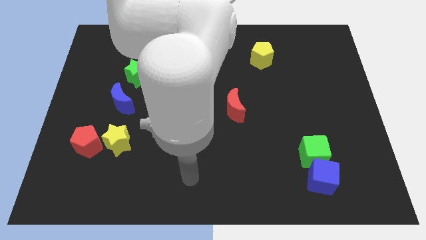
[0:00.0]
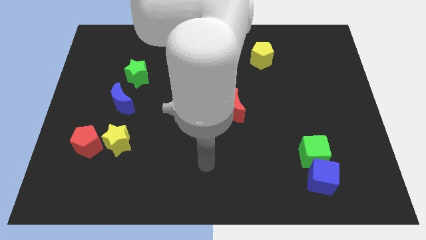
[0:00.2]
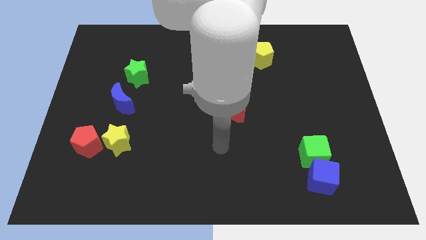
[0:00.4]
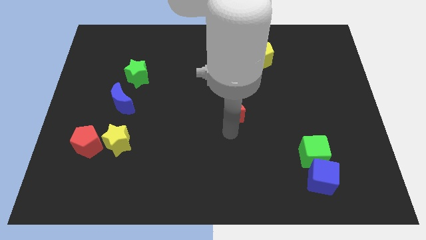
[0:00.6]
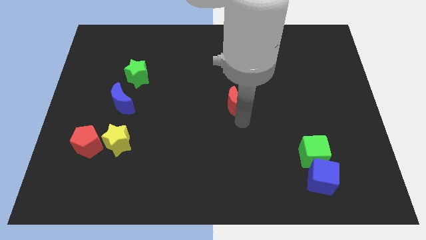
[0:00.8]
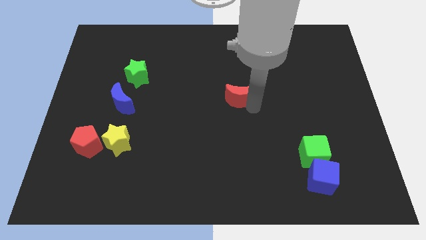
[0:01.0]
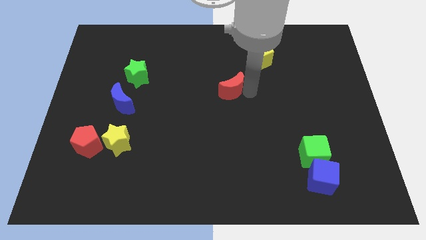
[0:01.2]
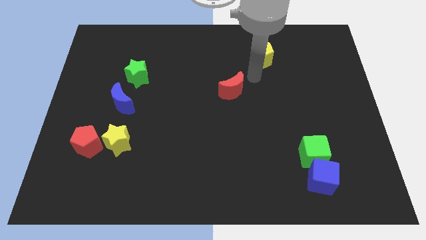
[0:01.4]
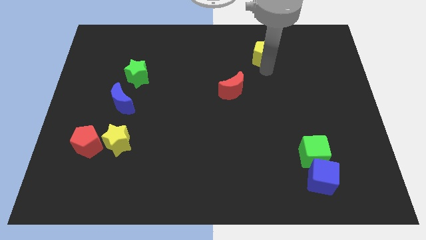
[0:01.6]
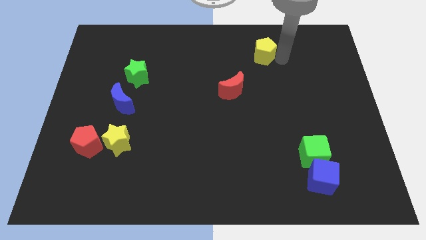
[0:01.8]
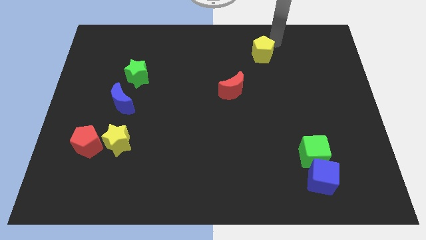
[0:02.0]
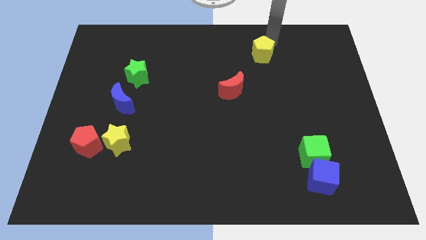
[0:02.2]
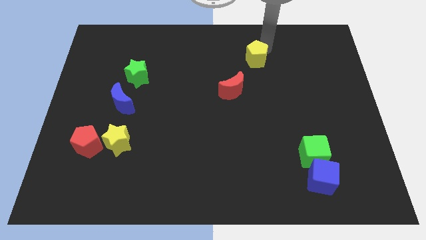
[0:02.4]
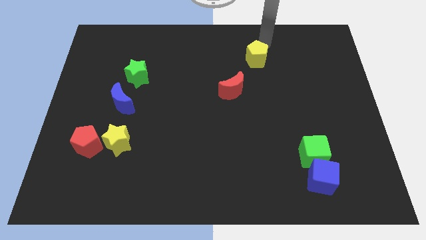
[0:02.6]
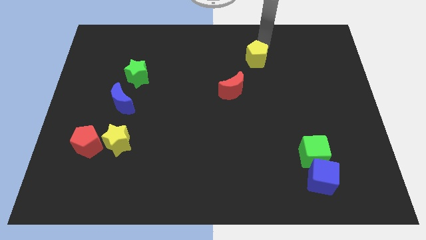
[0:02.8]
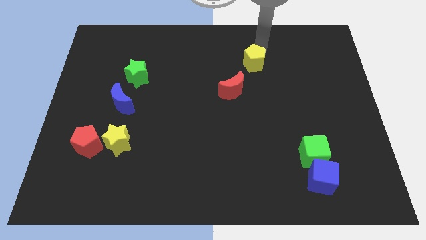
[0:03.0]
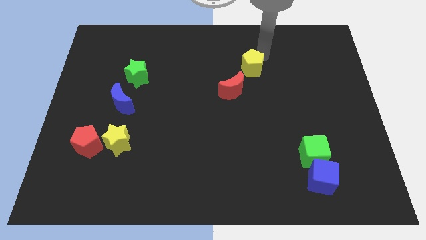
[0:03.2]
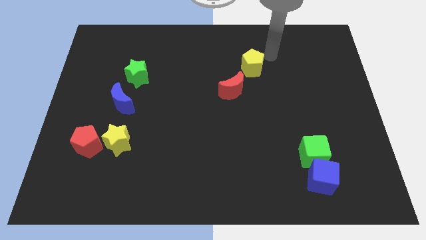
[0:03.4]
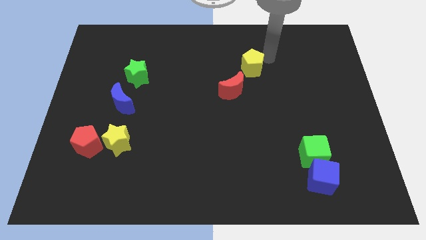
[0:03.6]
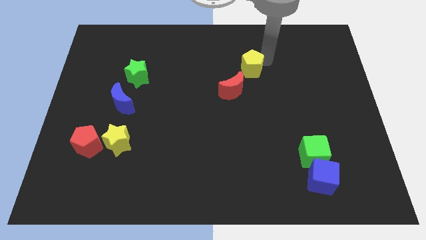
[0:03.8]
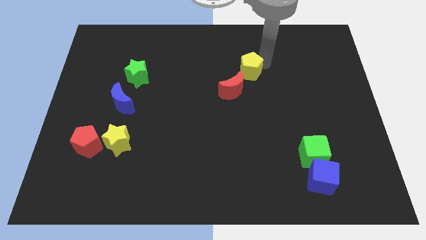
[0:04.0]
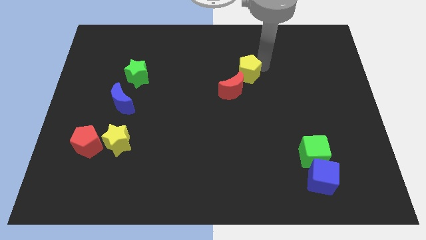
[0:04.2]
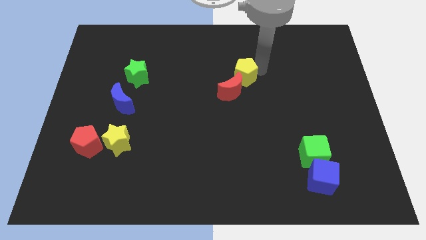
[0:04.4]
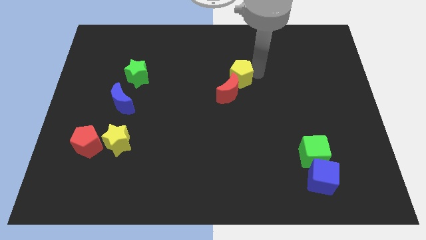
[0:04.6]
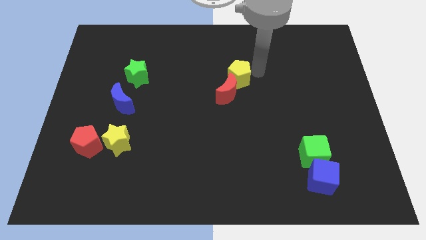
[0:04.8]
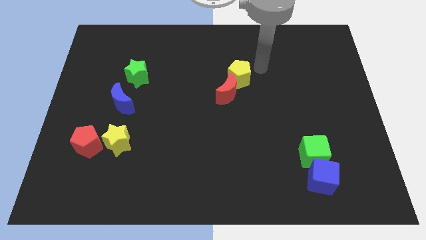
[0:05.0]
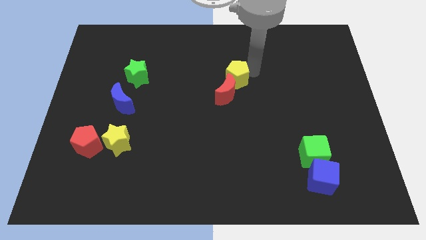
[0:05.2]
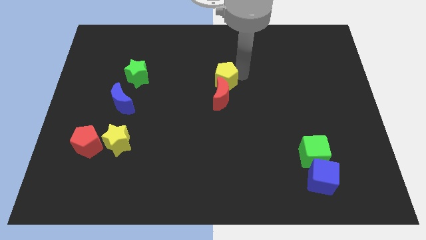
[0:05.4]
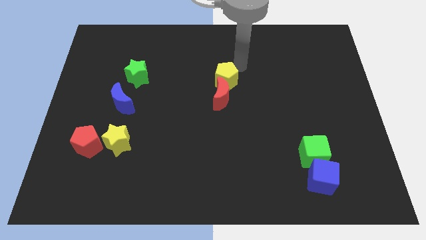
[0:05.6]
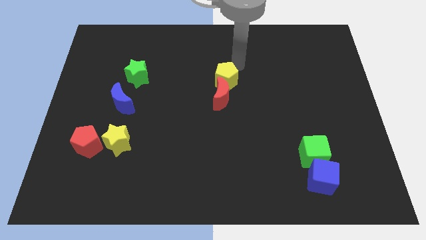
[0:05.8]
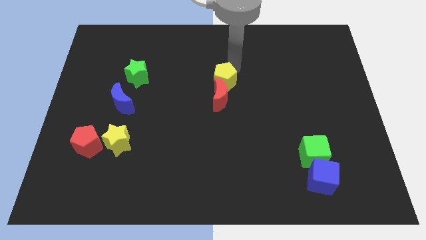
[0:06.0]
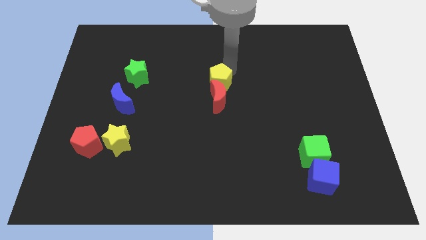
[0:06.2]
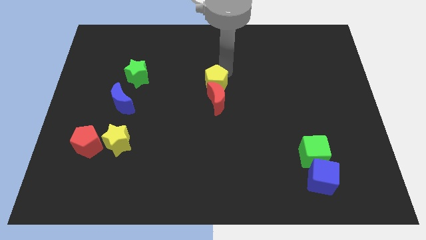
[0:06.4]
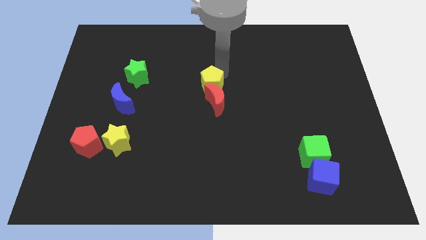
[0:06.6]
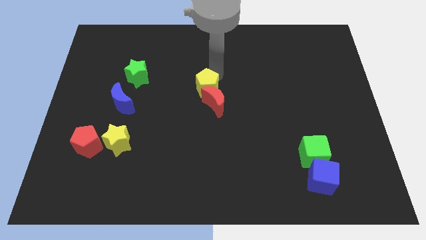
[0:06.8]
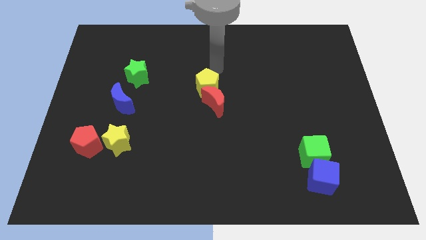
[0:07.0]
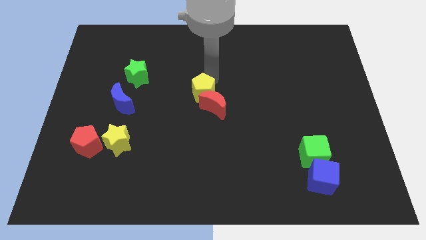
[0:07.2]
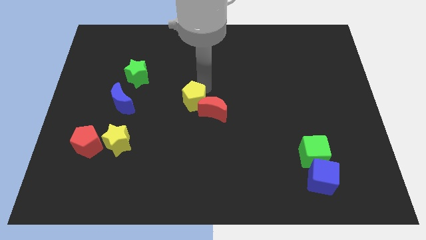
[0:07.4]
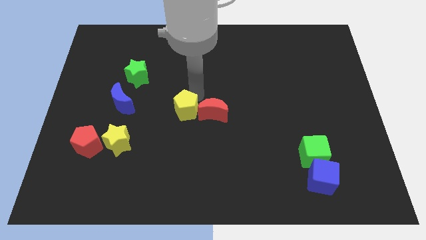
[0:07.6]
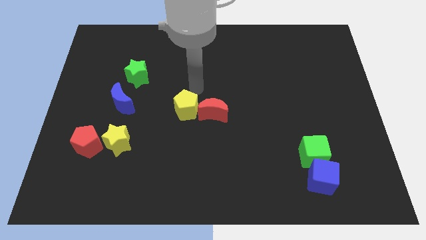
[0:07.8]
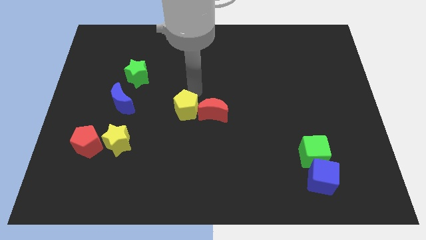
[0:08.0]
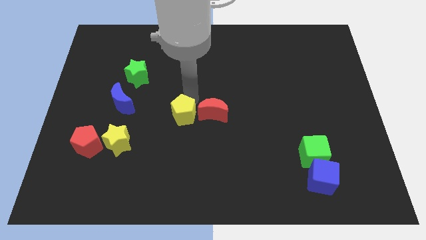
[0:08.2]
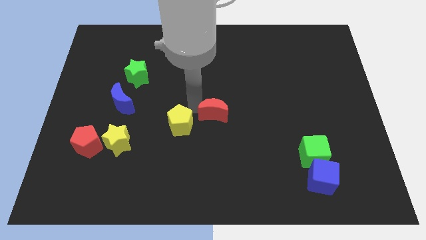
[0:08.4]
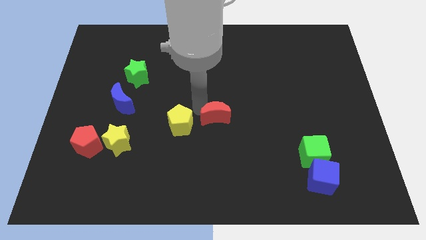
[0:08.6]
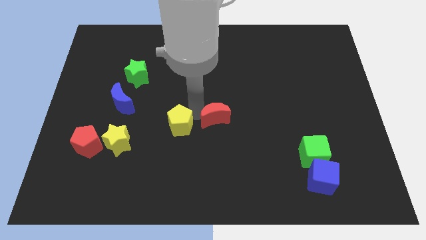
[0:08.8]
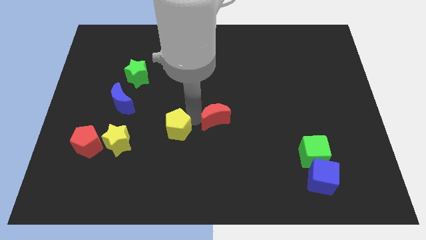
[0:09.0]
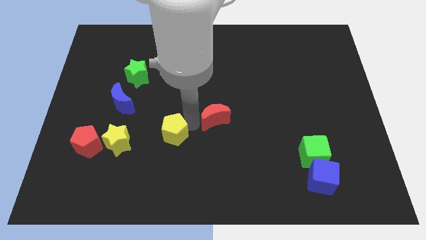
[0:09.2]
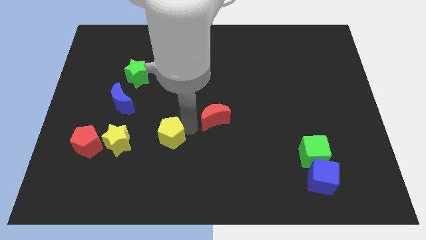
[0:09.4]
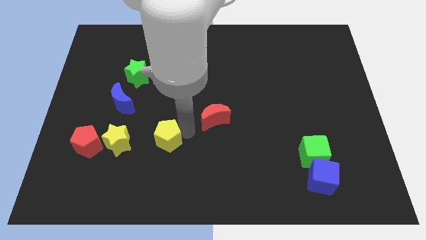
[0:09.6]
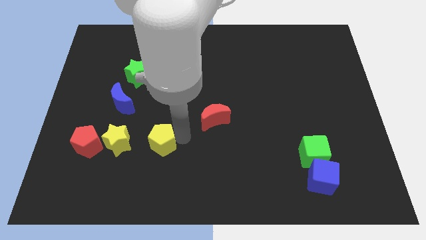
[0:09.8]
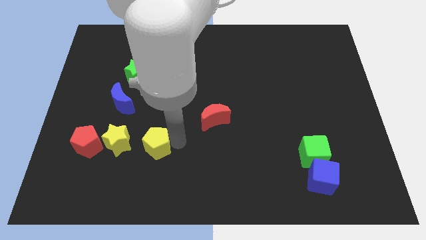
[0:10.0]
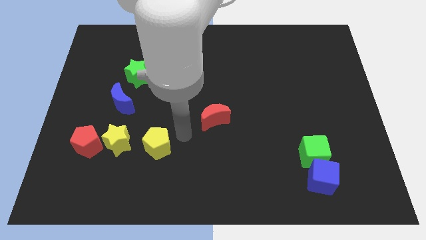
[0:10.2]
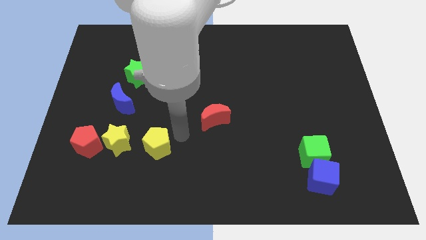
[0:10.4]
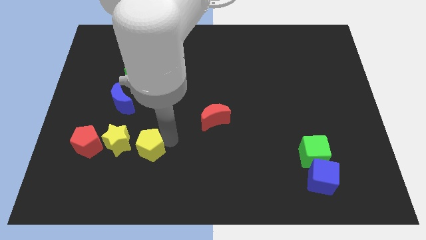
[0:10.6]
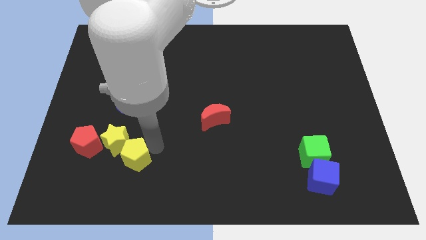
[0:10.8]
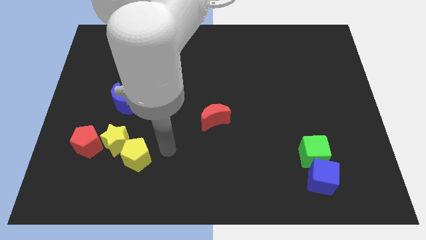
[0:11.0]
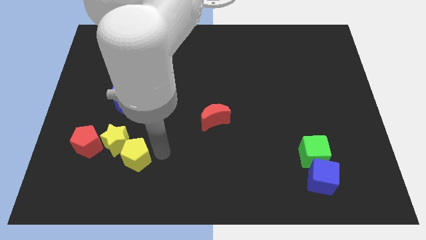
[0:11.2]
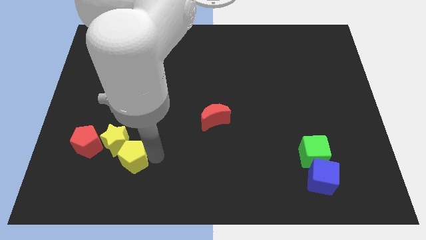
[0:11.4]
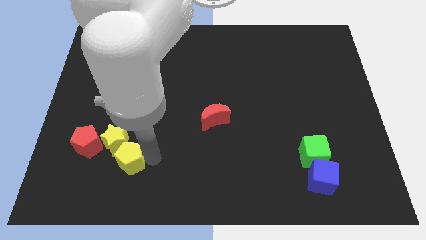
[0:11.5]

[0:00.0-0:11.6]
put the yellow pentagon diagonally down and to the right of the red pentagon

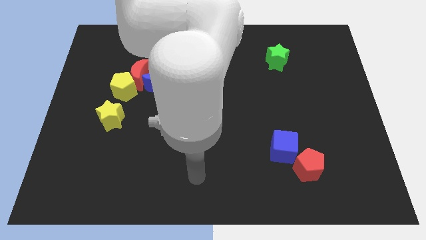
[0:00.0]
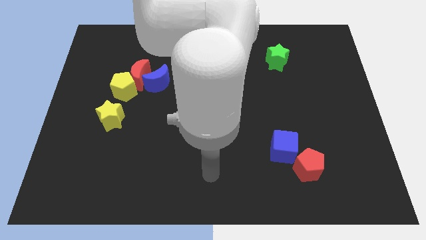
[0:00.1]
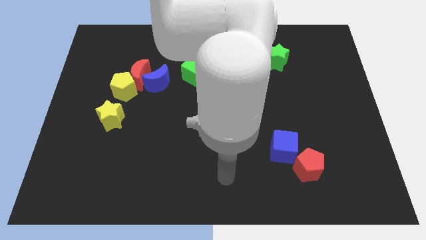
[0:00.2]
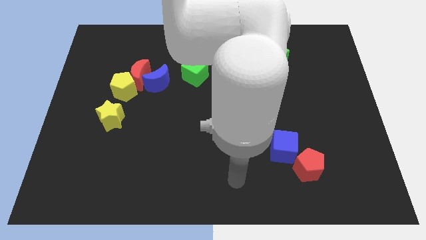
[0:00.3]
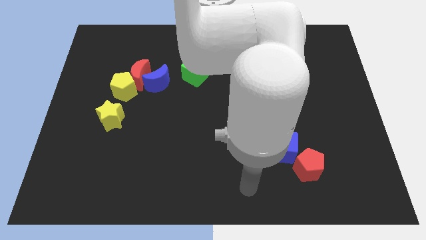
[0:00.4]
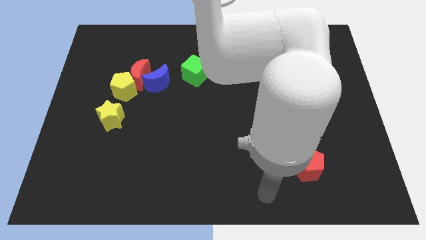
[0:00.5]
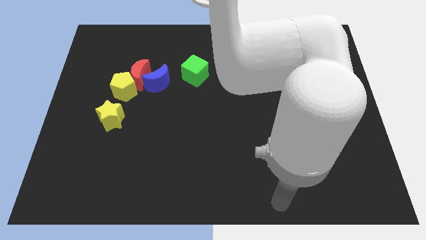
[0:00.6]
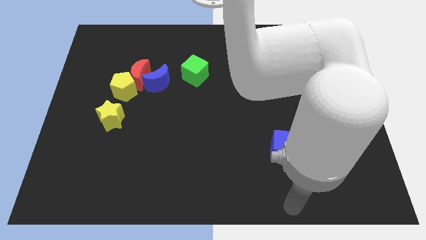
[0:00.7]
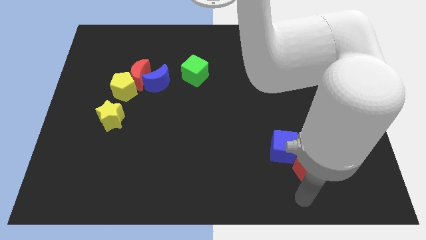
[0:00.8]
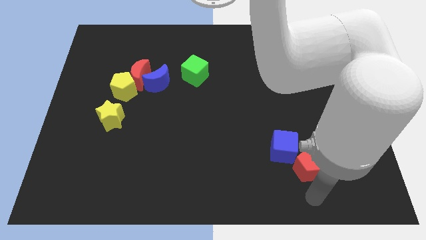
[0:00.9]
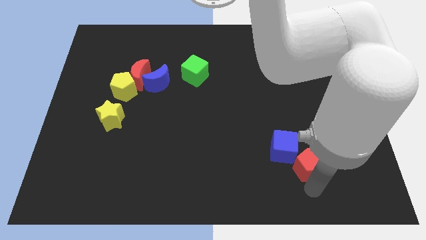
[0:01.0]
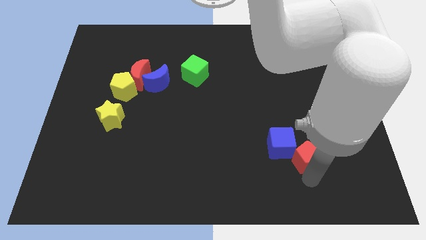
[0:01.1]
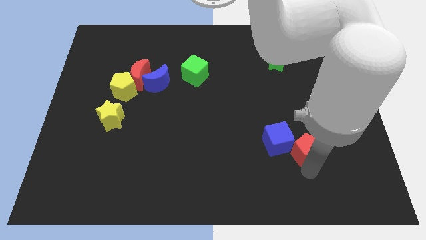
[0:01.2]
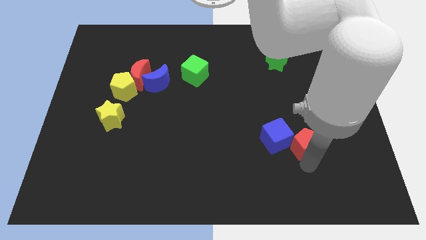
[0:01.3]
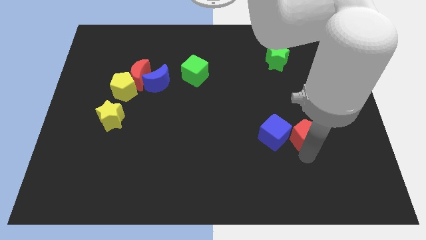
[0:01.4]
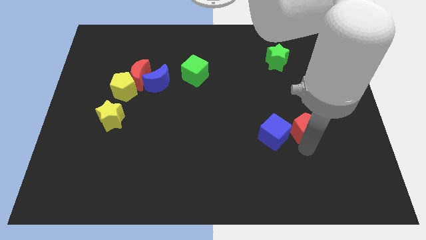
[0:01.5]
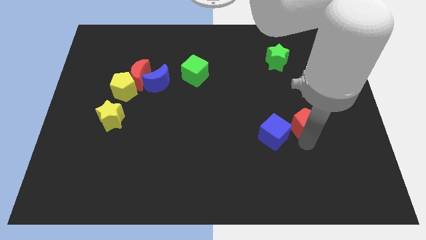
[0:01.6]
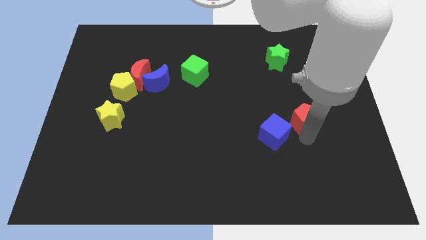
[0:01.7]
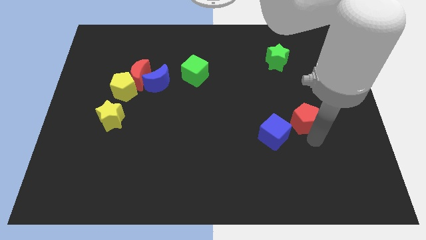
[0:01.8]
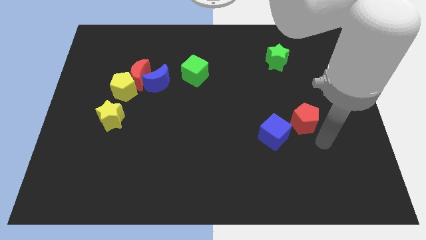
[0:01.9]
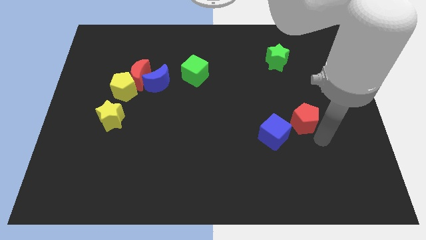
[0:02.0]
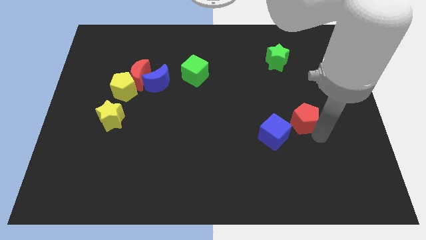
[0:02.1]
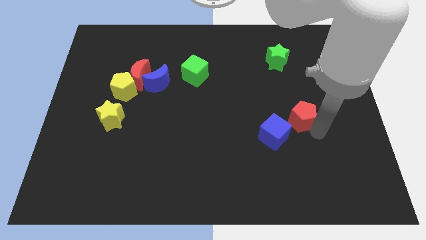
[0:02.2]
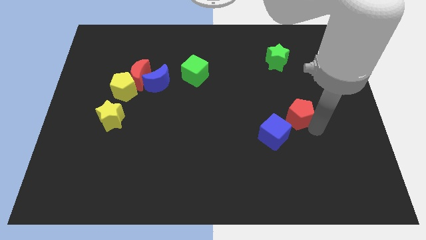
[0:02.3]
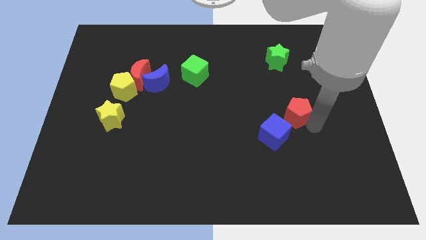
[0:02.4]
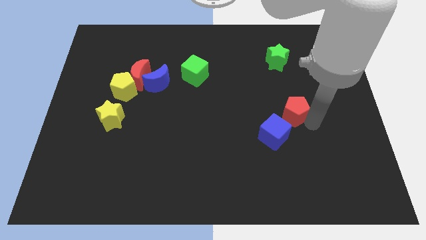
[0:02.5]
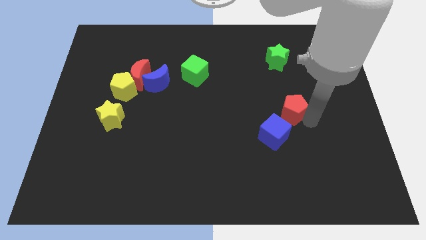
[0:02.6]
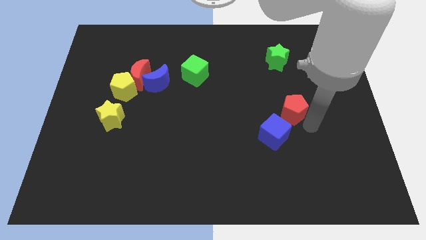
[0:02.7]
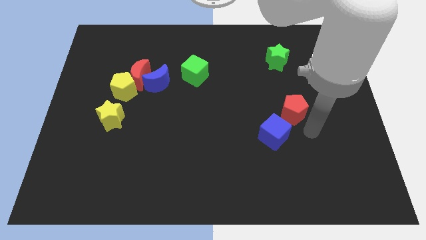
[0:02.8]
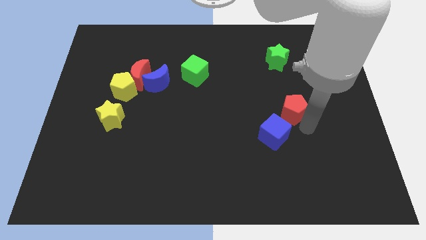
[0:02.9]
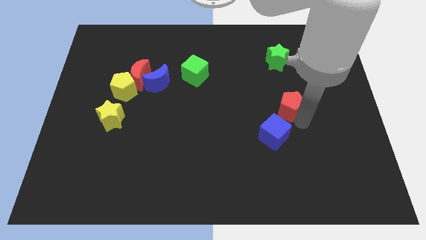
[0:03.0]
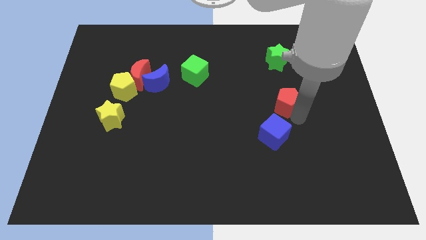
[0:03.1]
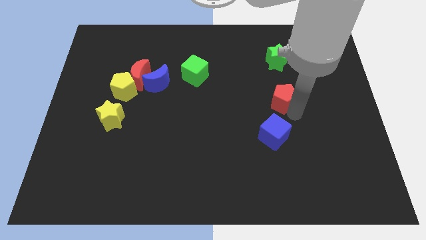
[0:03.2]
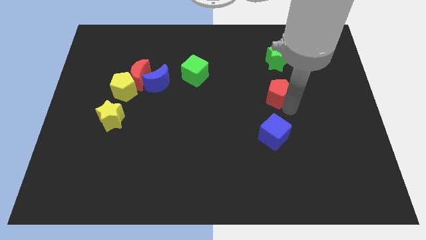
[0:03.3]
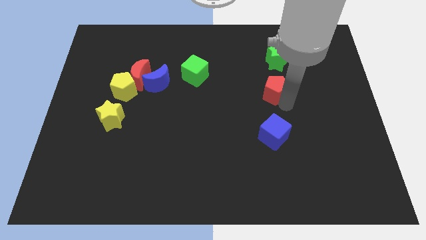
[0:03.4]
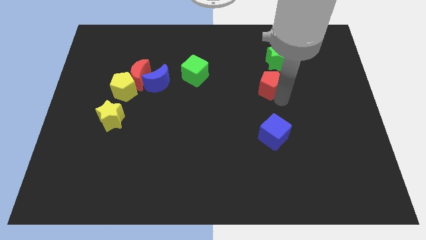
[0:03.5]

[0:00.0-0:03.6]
push the red pentagon to the bottom left of the green star
